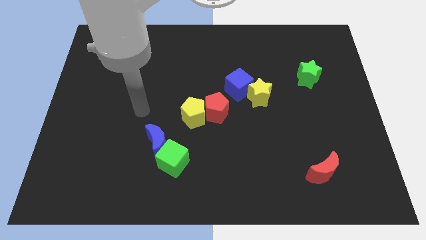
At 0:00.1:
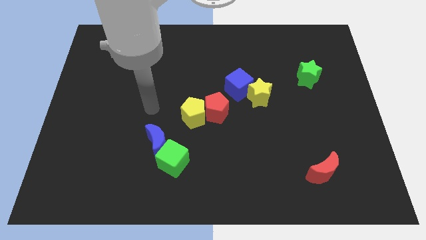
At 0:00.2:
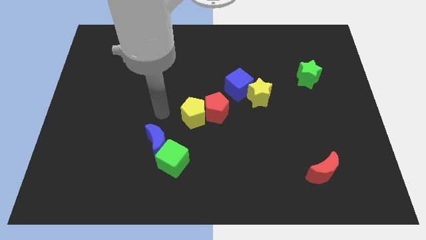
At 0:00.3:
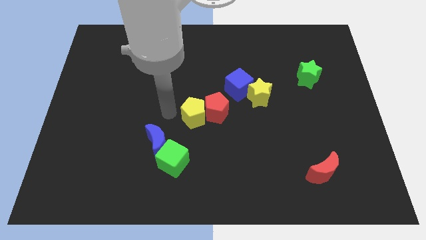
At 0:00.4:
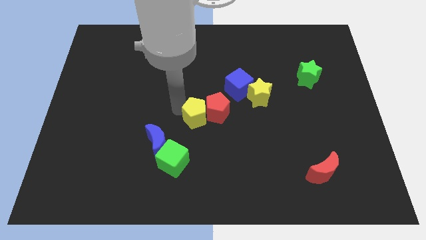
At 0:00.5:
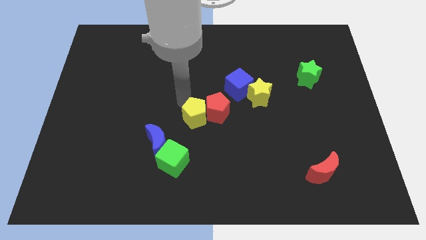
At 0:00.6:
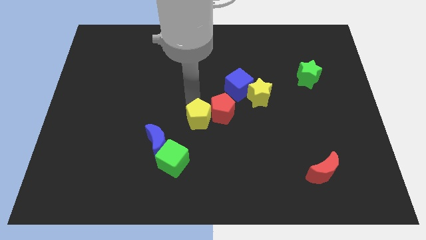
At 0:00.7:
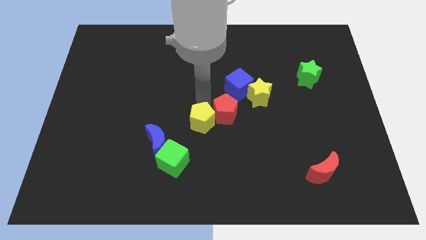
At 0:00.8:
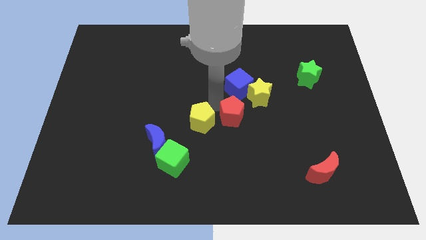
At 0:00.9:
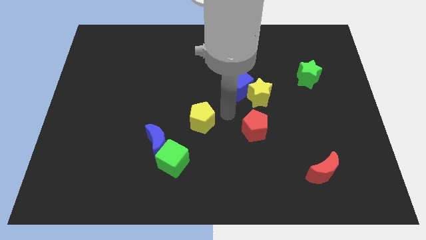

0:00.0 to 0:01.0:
separate the yellow pentagon from the red pentagon

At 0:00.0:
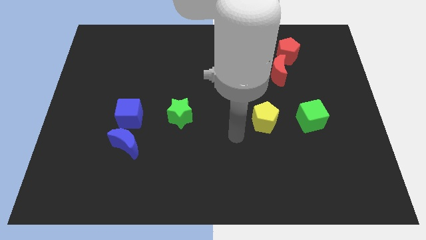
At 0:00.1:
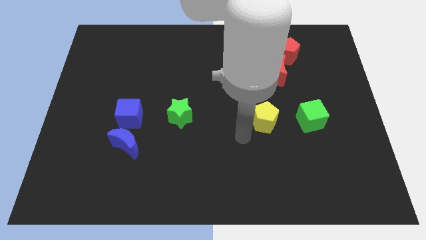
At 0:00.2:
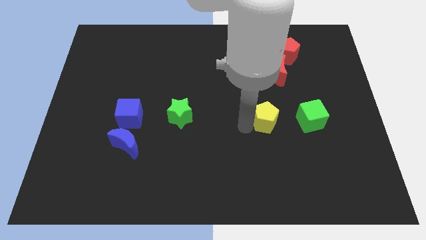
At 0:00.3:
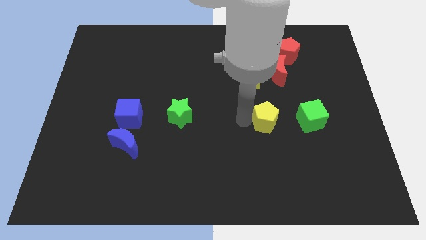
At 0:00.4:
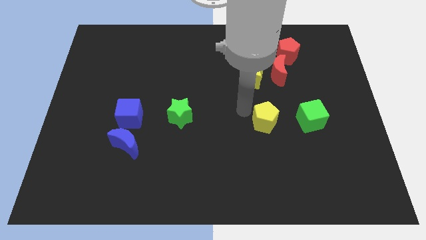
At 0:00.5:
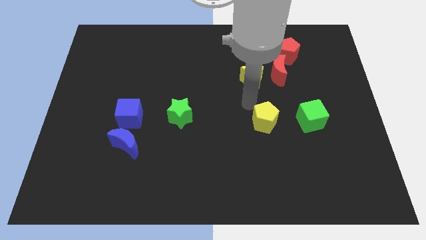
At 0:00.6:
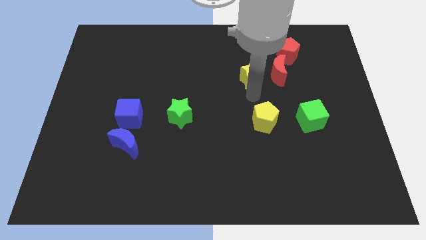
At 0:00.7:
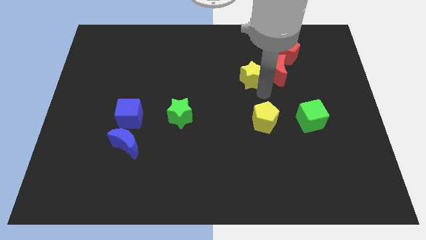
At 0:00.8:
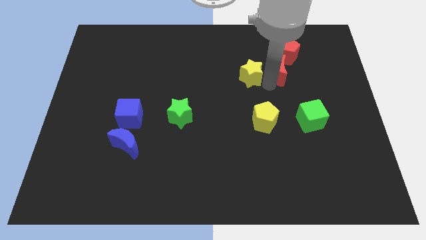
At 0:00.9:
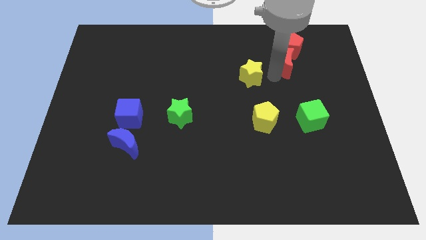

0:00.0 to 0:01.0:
pull the yellow star apart from the red moon

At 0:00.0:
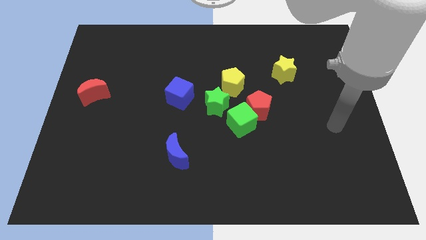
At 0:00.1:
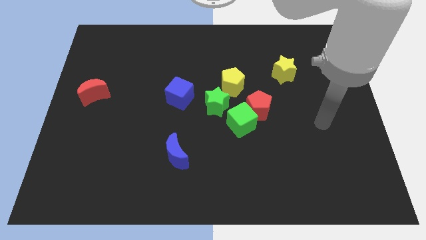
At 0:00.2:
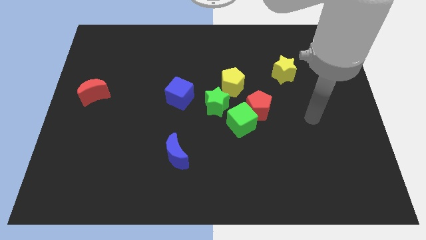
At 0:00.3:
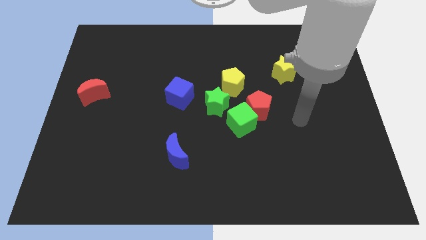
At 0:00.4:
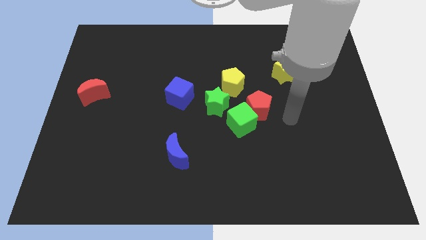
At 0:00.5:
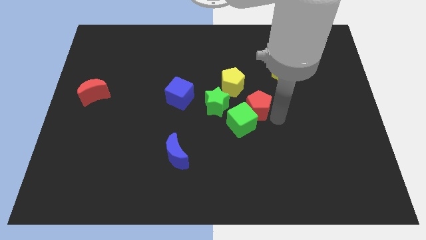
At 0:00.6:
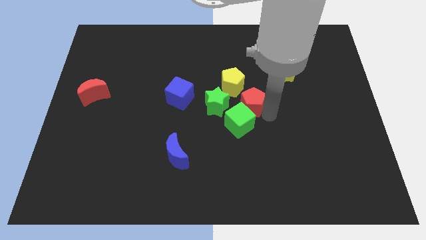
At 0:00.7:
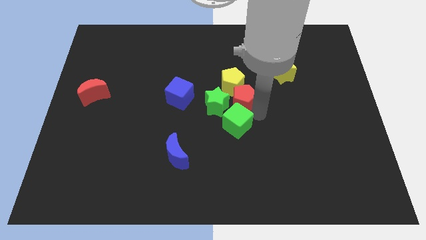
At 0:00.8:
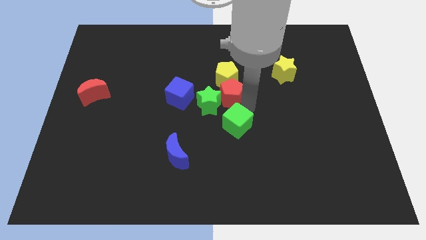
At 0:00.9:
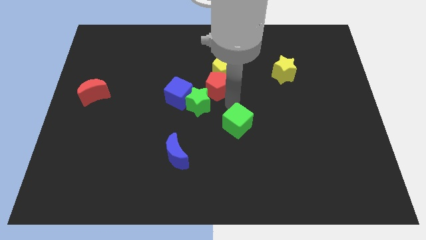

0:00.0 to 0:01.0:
separate the green cube from the red pentagon and green star

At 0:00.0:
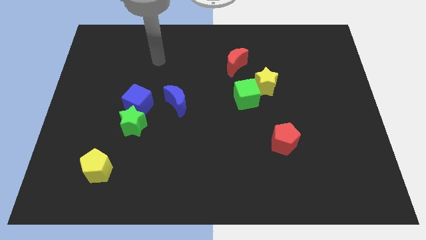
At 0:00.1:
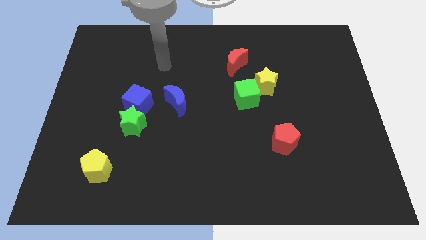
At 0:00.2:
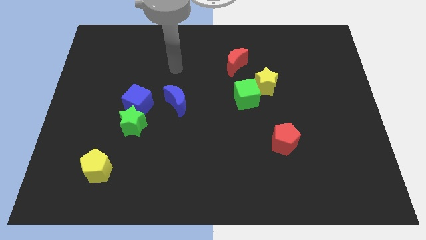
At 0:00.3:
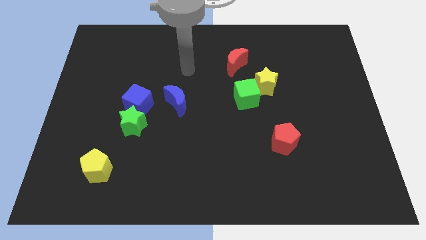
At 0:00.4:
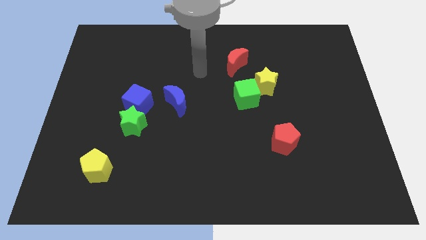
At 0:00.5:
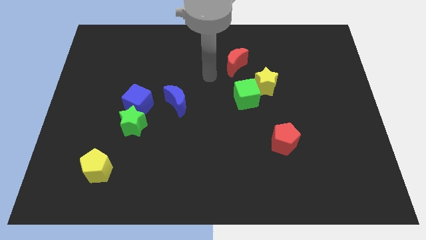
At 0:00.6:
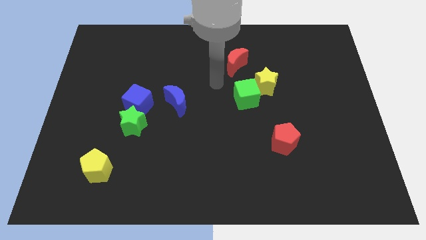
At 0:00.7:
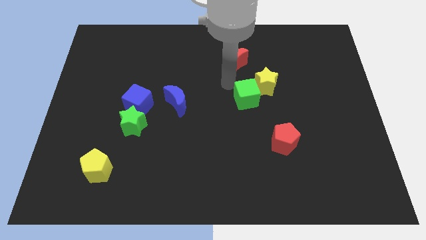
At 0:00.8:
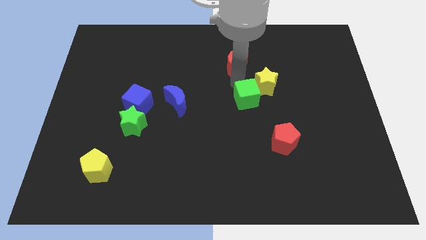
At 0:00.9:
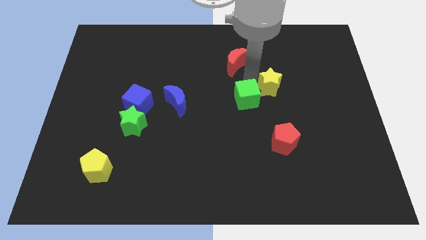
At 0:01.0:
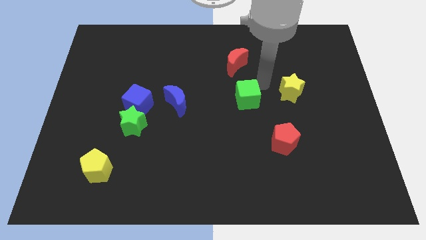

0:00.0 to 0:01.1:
separate the green cube from the yellow star

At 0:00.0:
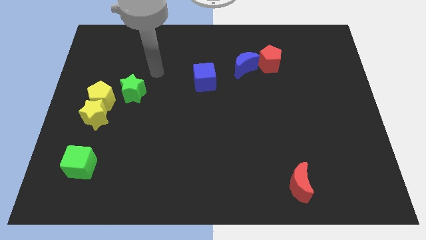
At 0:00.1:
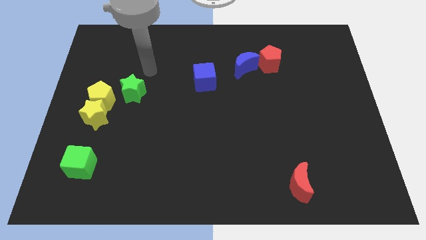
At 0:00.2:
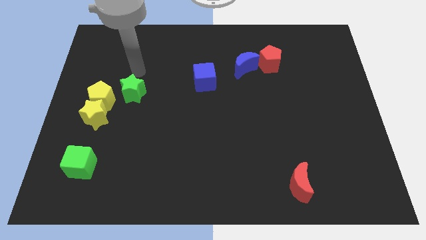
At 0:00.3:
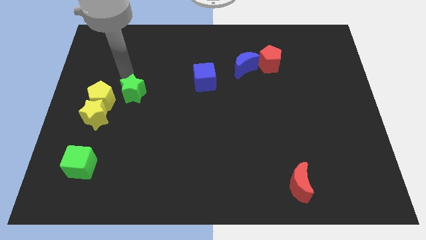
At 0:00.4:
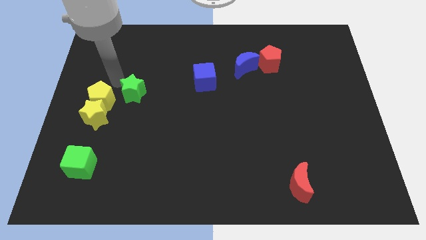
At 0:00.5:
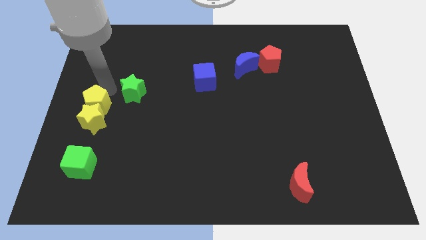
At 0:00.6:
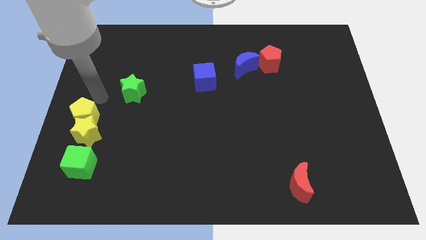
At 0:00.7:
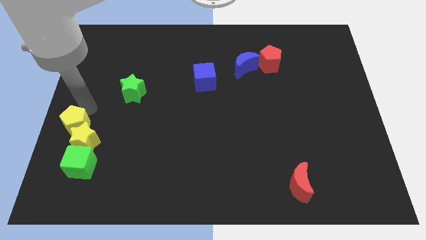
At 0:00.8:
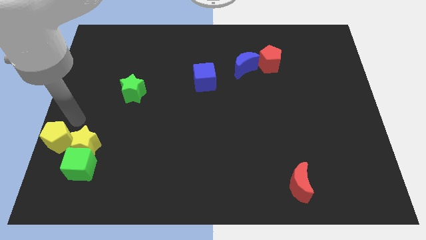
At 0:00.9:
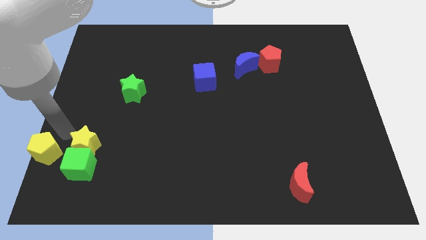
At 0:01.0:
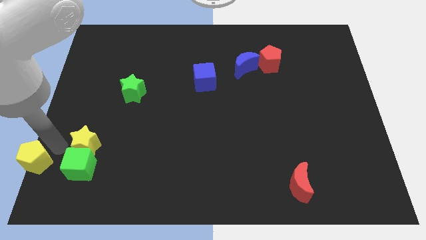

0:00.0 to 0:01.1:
move the yellow star away from the yellow pentagon

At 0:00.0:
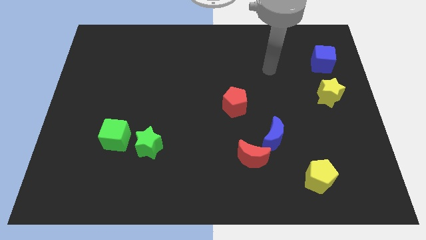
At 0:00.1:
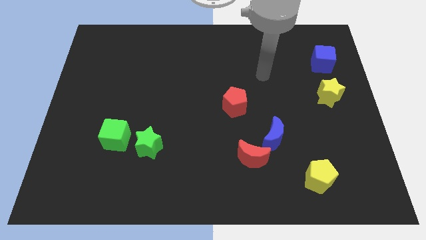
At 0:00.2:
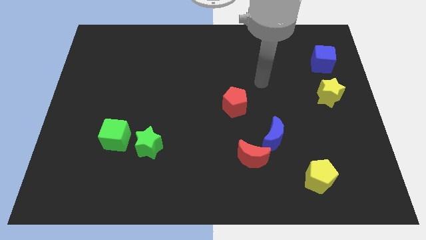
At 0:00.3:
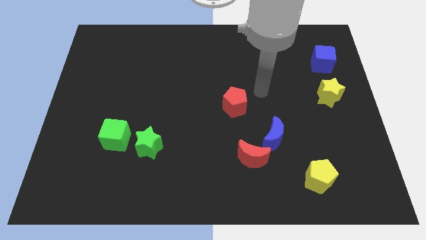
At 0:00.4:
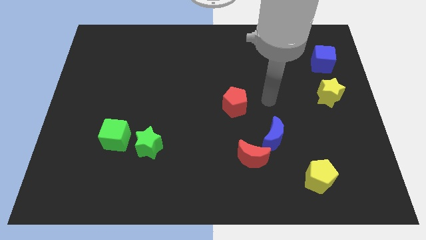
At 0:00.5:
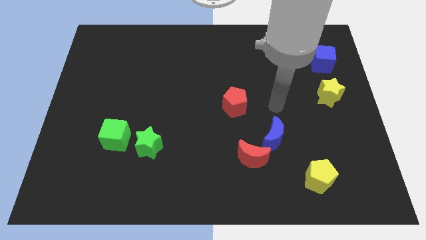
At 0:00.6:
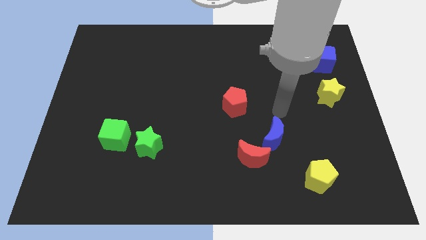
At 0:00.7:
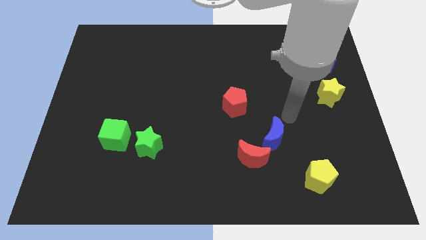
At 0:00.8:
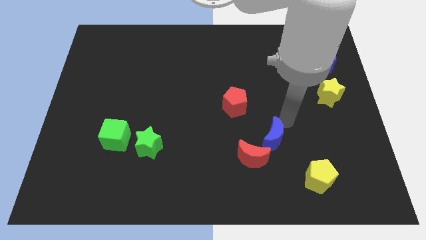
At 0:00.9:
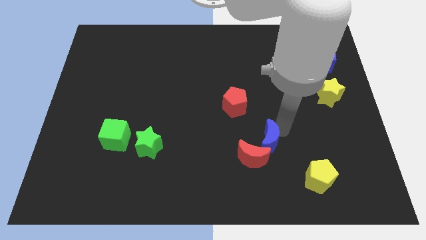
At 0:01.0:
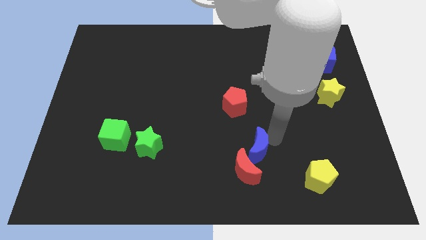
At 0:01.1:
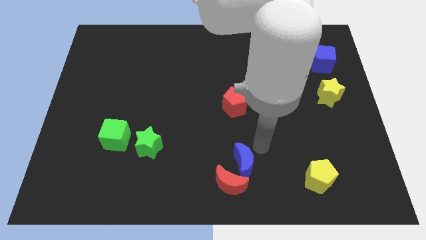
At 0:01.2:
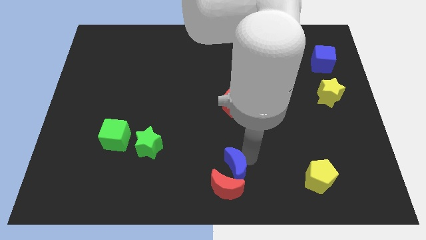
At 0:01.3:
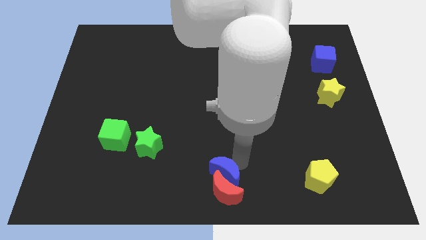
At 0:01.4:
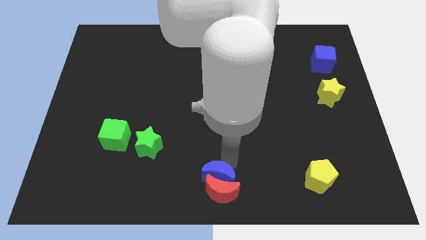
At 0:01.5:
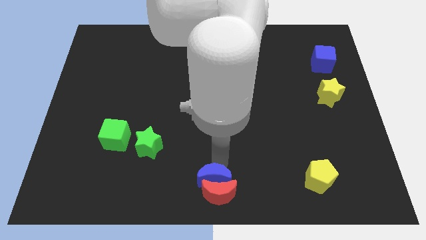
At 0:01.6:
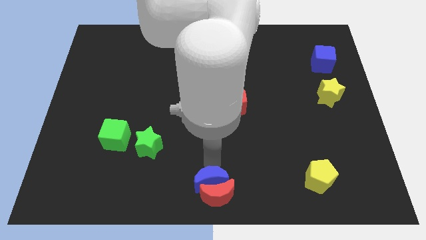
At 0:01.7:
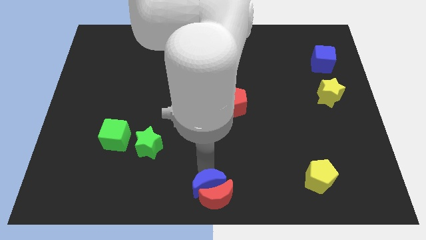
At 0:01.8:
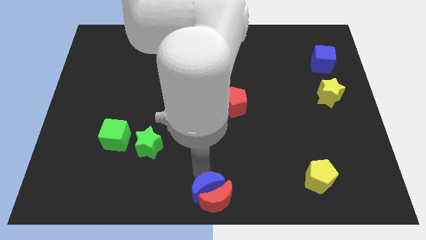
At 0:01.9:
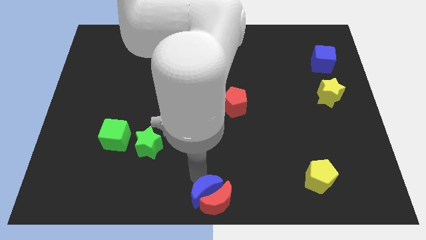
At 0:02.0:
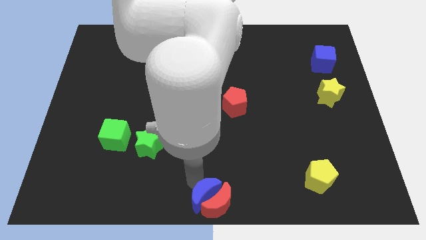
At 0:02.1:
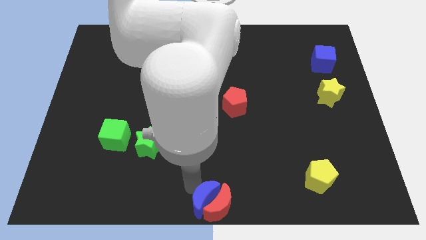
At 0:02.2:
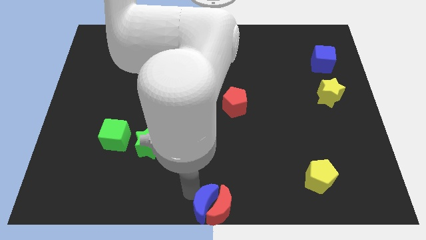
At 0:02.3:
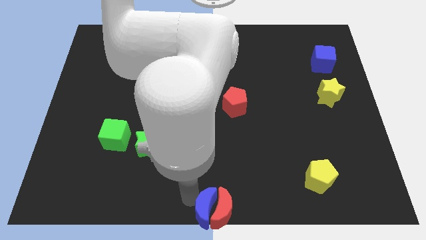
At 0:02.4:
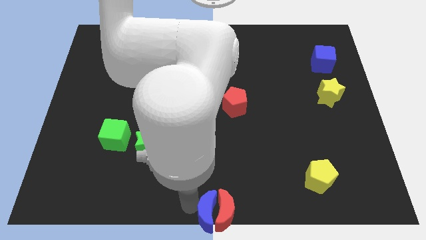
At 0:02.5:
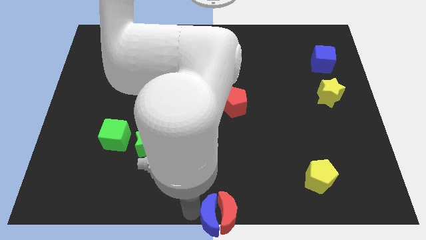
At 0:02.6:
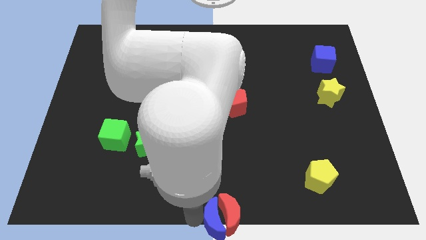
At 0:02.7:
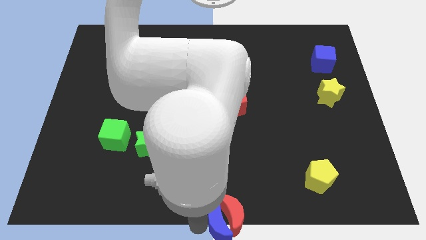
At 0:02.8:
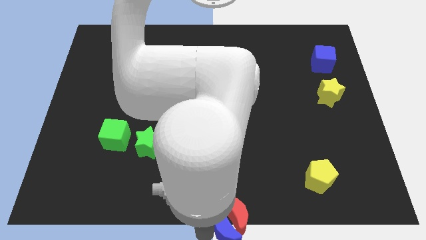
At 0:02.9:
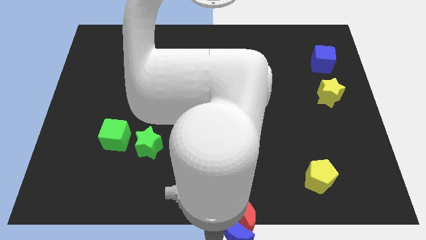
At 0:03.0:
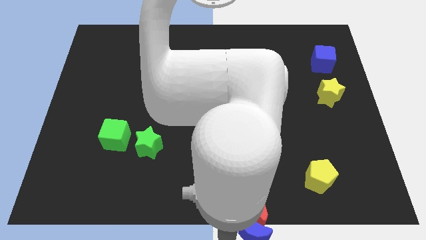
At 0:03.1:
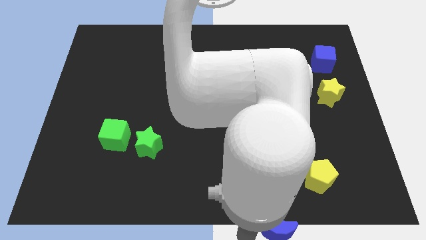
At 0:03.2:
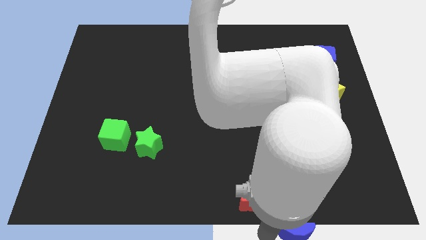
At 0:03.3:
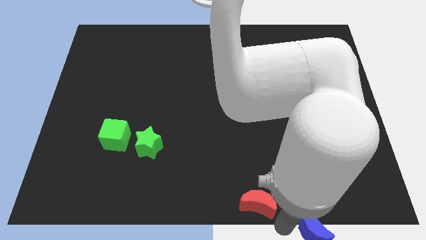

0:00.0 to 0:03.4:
move the red moon away from the blue moon

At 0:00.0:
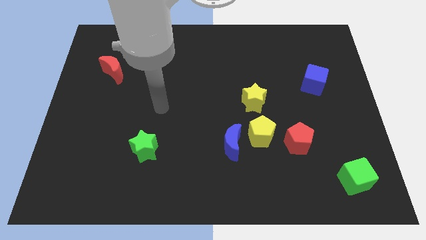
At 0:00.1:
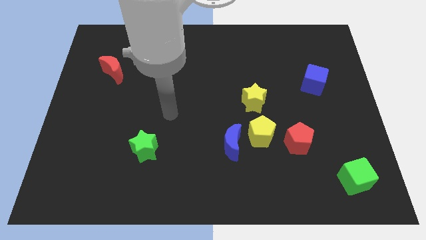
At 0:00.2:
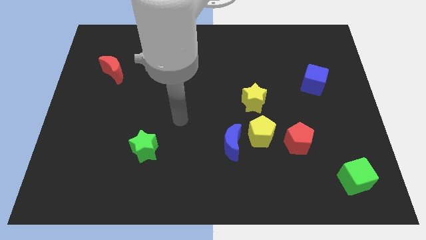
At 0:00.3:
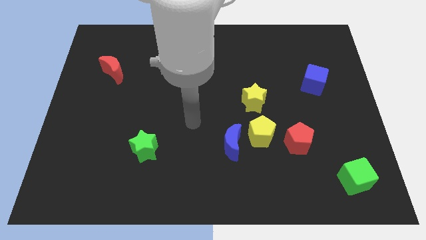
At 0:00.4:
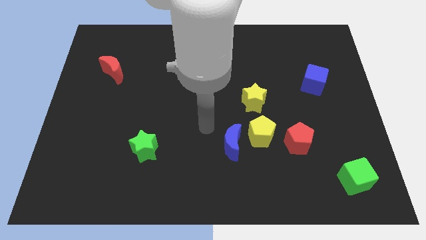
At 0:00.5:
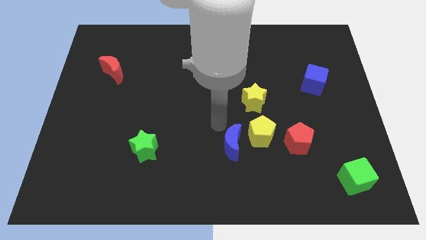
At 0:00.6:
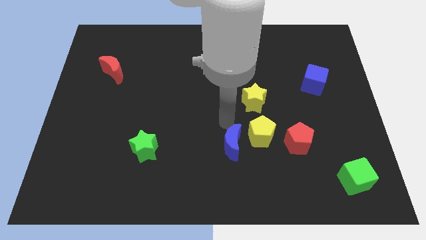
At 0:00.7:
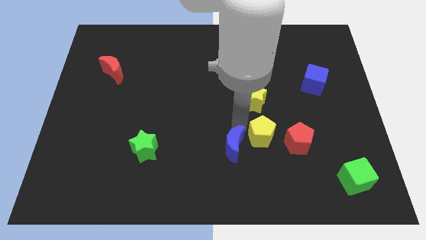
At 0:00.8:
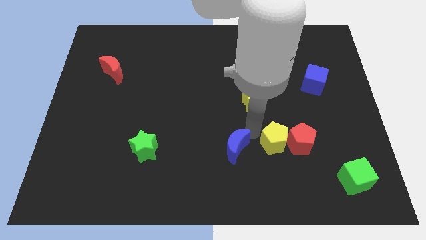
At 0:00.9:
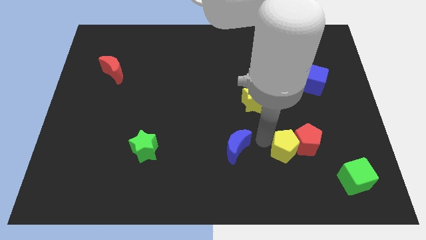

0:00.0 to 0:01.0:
separate the blue moon from the yellow pentagon
